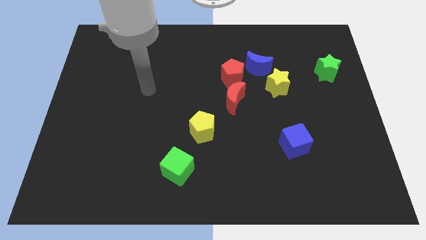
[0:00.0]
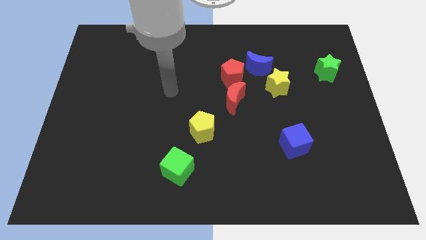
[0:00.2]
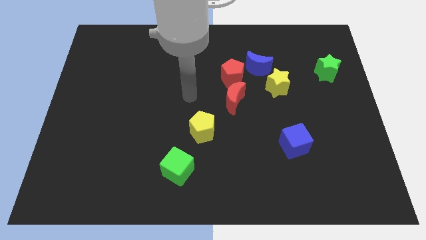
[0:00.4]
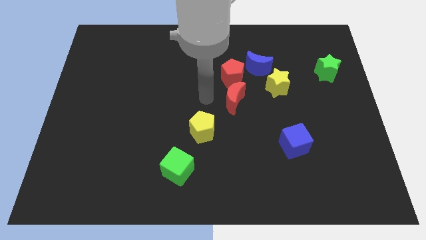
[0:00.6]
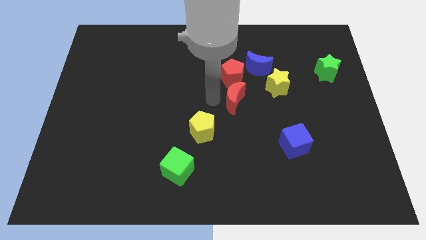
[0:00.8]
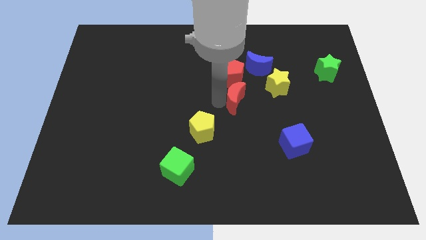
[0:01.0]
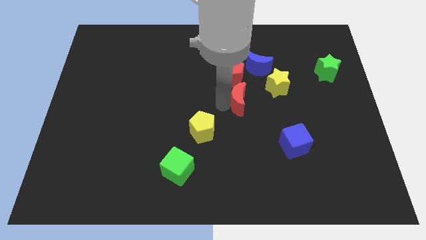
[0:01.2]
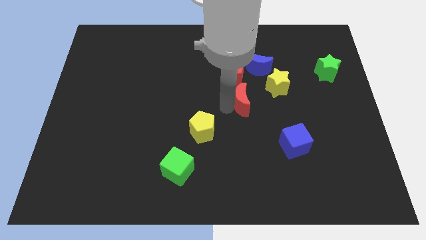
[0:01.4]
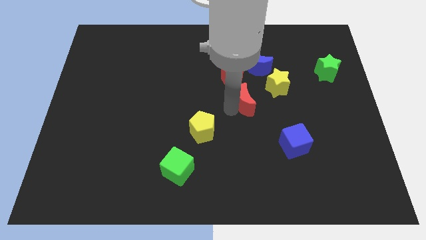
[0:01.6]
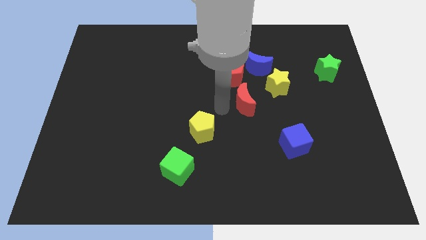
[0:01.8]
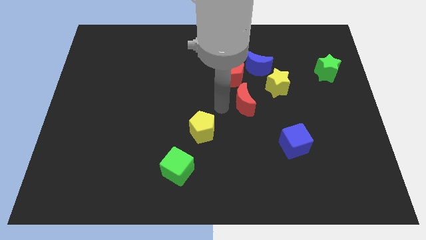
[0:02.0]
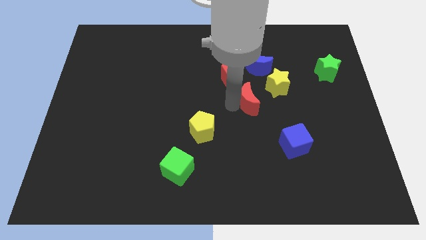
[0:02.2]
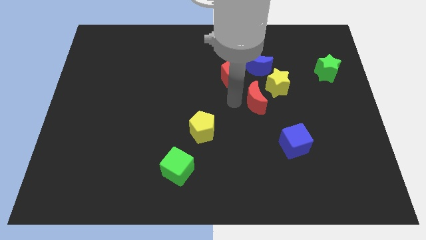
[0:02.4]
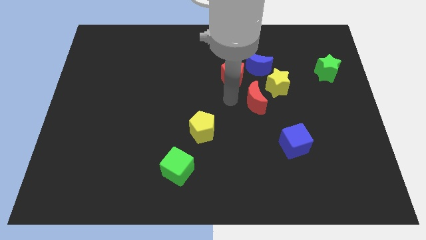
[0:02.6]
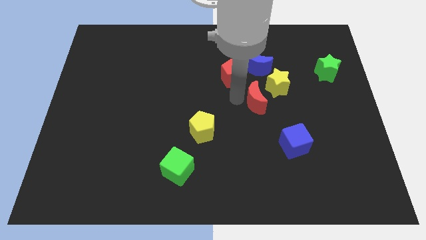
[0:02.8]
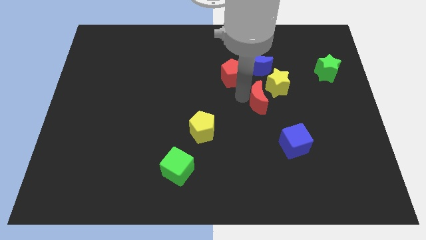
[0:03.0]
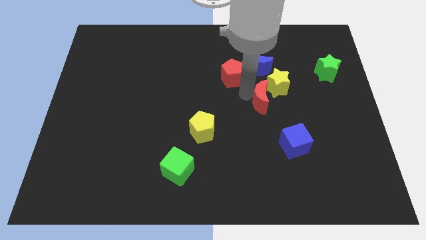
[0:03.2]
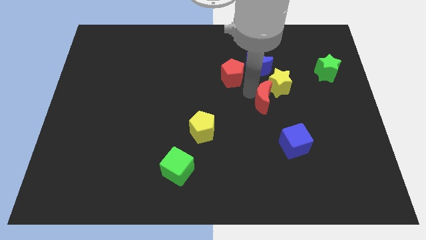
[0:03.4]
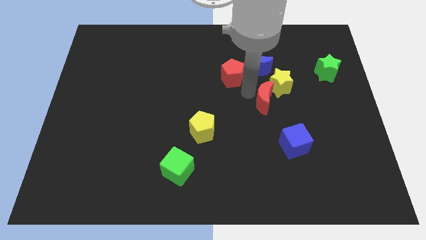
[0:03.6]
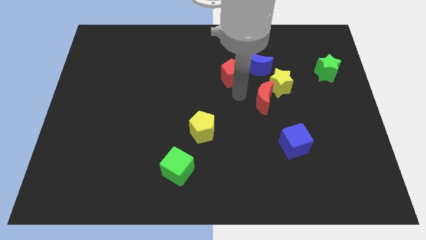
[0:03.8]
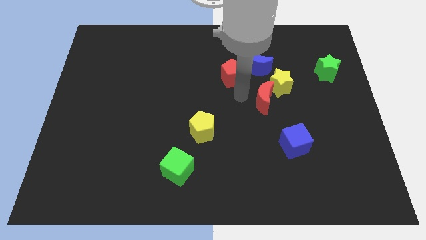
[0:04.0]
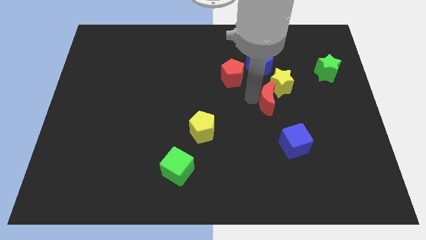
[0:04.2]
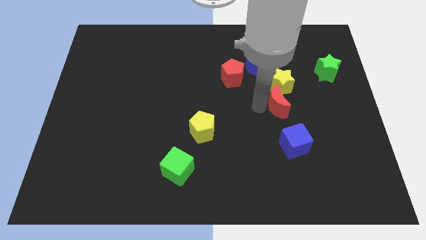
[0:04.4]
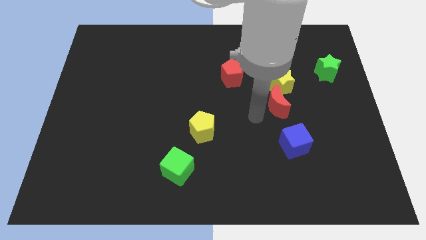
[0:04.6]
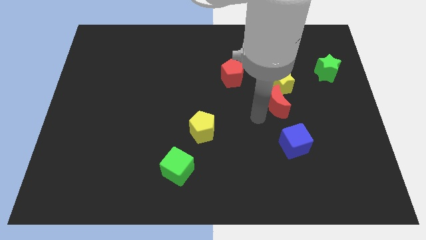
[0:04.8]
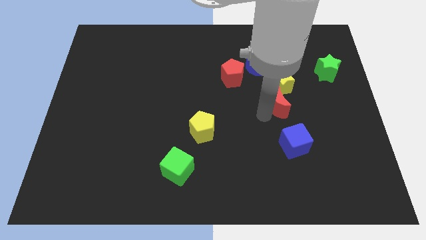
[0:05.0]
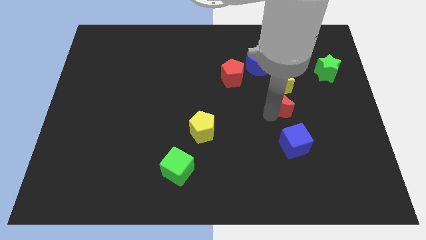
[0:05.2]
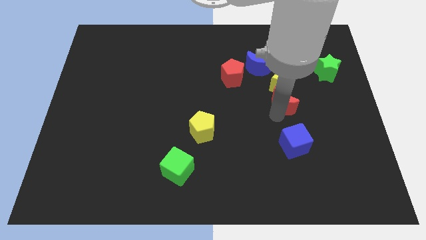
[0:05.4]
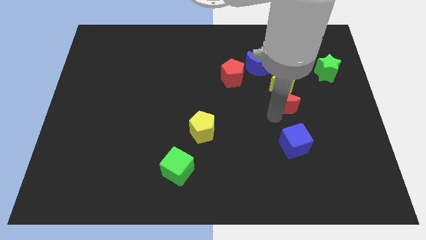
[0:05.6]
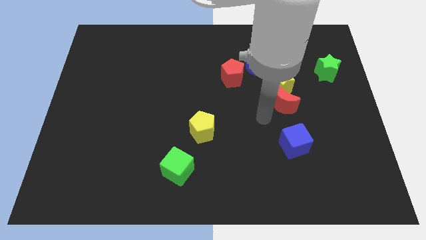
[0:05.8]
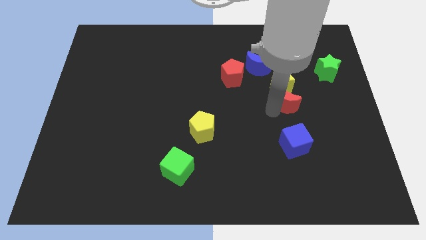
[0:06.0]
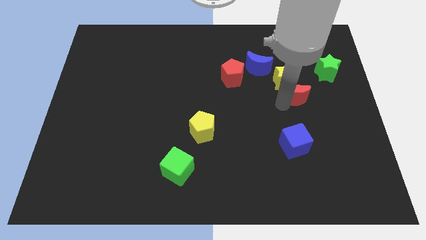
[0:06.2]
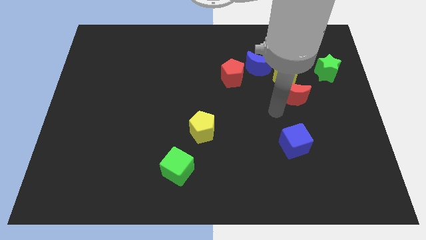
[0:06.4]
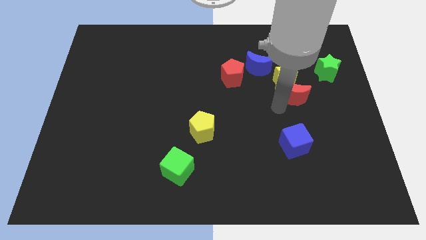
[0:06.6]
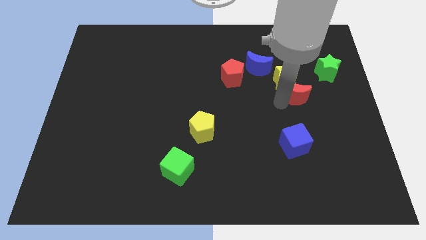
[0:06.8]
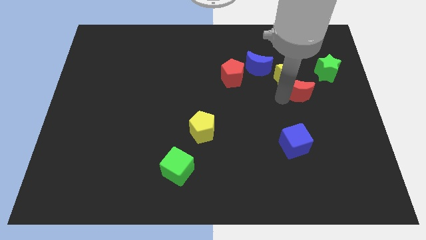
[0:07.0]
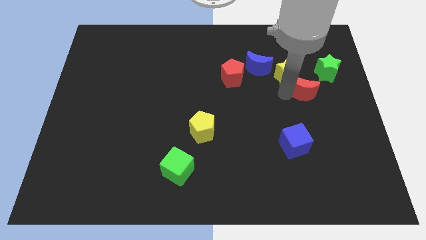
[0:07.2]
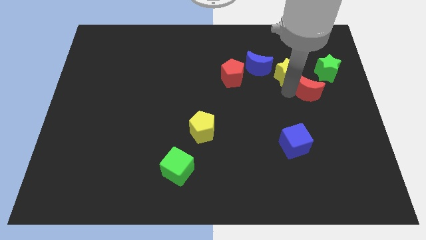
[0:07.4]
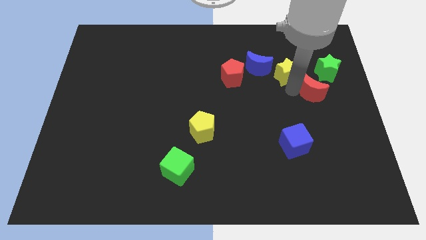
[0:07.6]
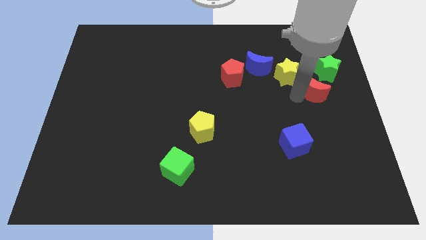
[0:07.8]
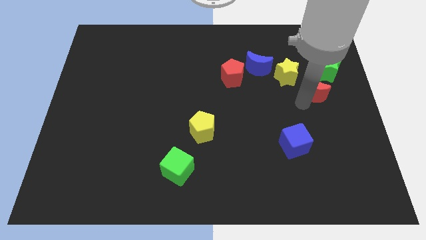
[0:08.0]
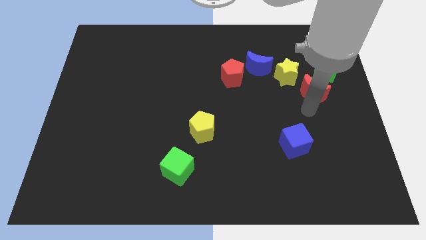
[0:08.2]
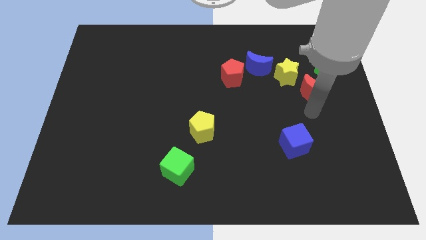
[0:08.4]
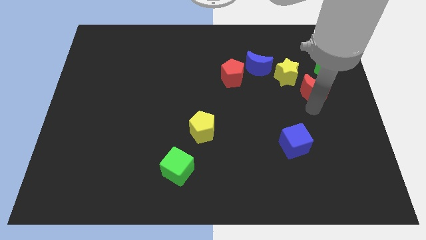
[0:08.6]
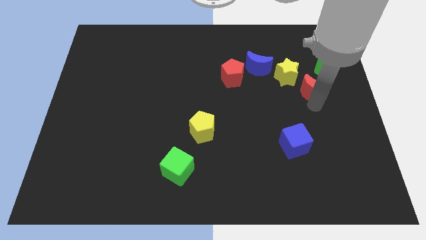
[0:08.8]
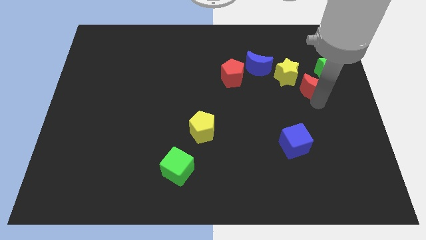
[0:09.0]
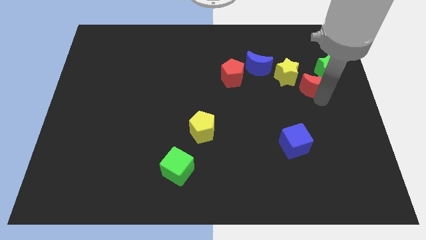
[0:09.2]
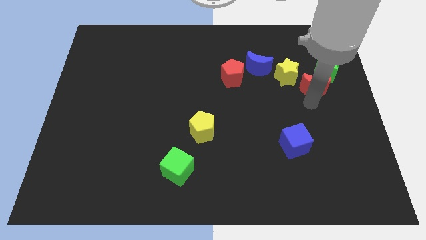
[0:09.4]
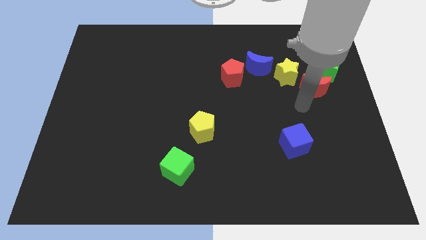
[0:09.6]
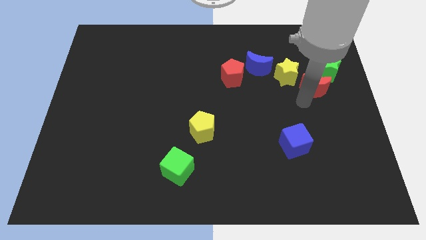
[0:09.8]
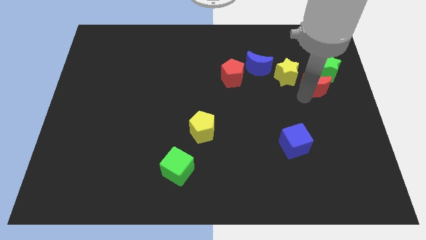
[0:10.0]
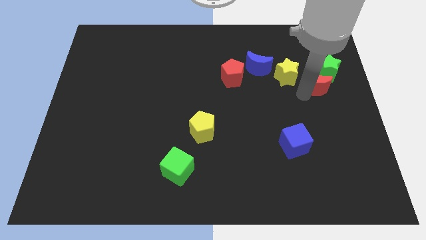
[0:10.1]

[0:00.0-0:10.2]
push the red moon close to the green star

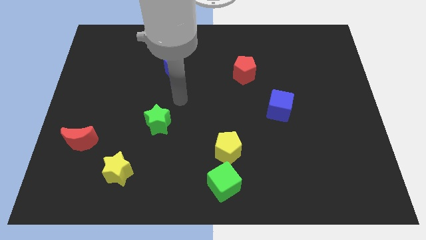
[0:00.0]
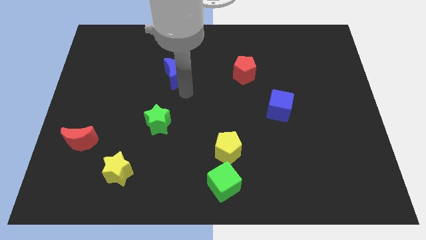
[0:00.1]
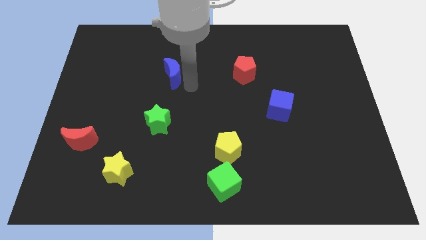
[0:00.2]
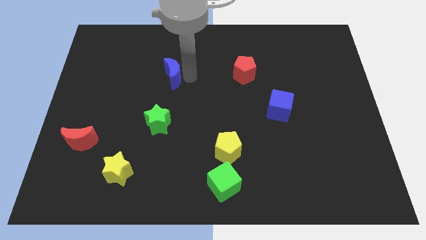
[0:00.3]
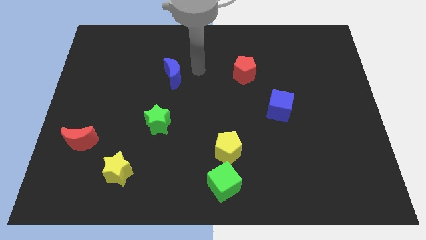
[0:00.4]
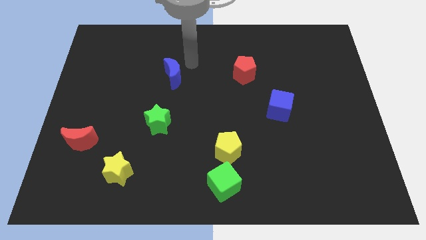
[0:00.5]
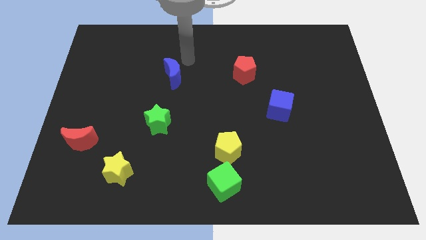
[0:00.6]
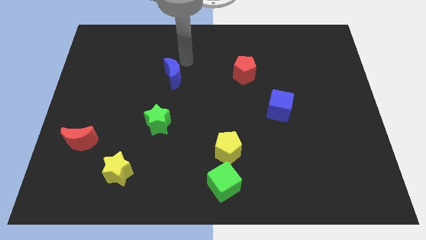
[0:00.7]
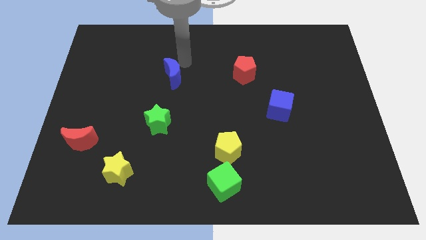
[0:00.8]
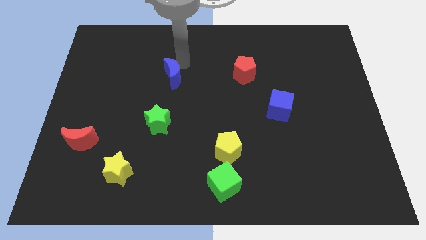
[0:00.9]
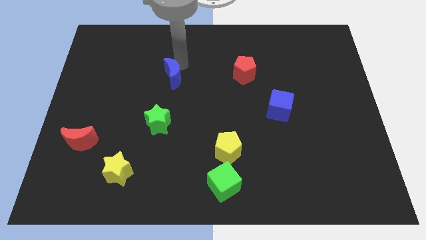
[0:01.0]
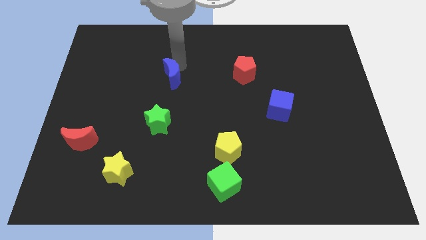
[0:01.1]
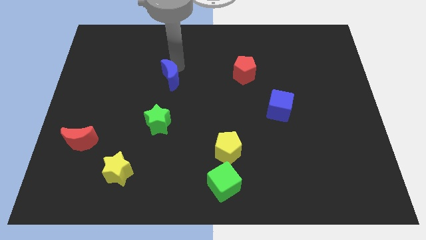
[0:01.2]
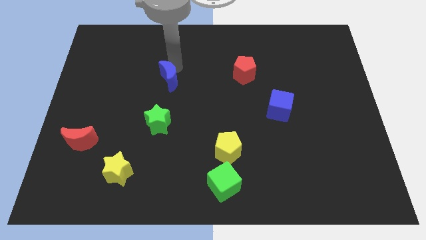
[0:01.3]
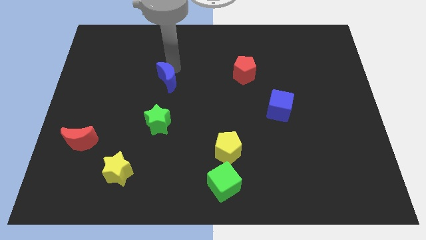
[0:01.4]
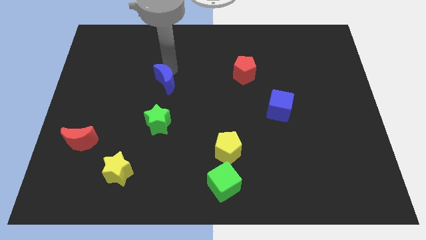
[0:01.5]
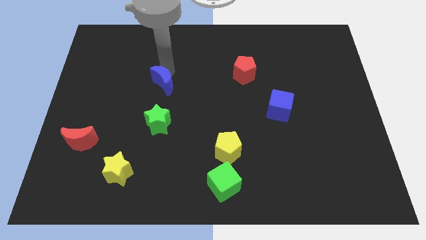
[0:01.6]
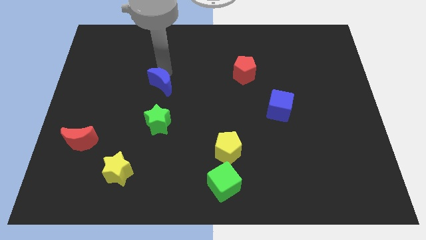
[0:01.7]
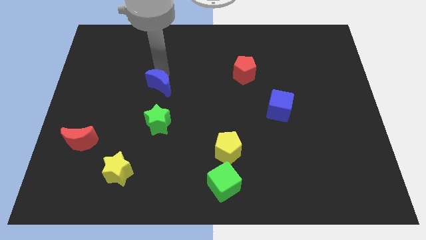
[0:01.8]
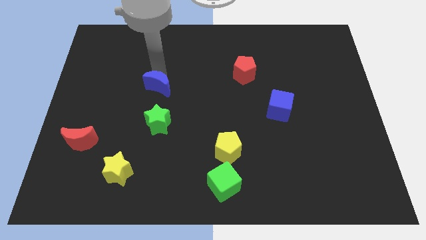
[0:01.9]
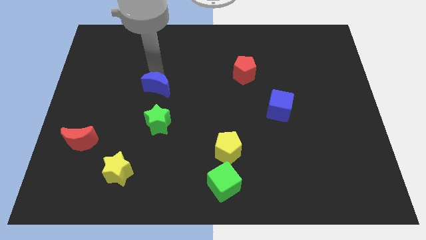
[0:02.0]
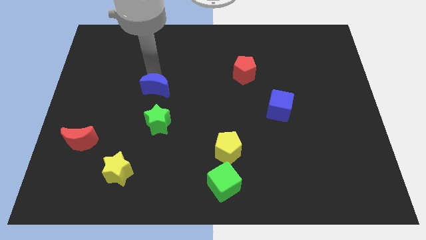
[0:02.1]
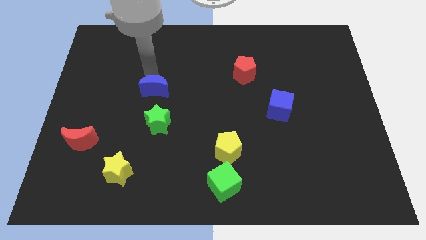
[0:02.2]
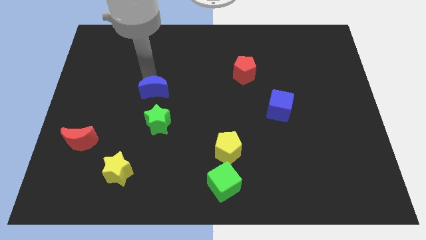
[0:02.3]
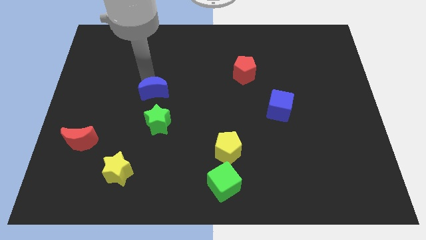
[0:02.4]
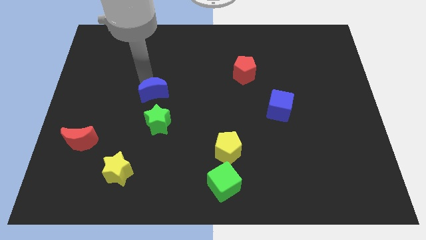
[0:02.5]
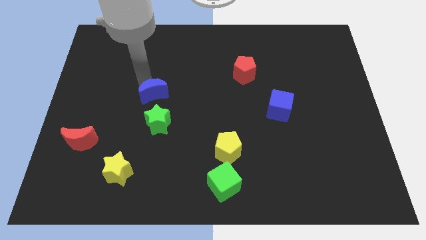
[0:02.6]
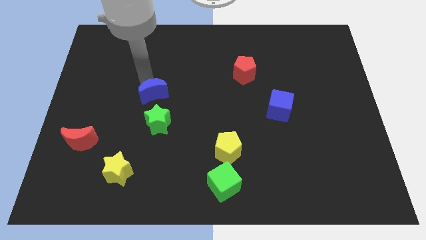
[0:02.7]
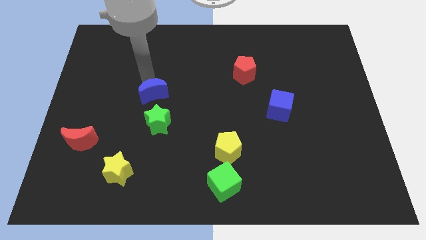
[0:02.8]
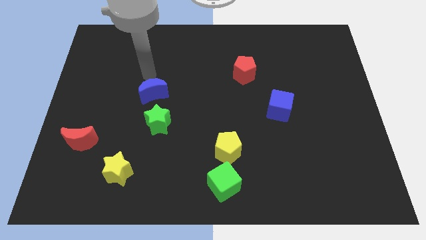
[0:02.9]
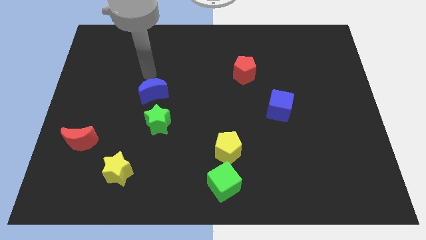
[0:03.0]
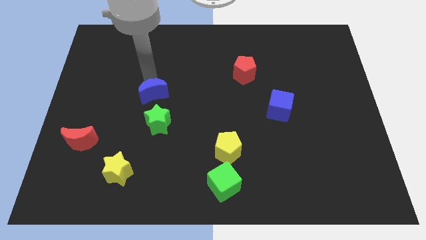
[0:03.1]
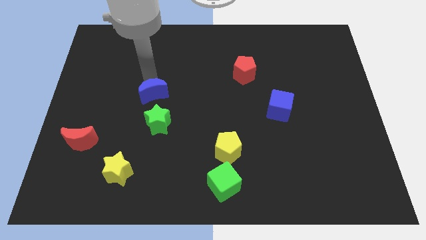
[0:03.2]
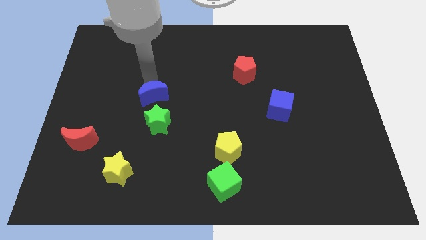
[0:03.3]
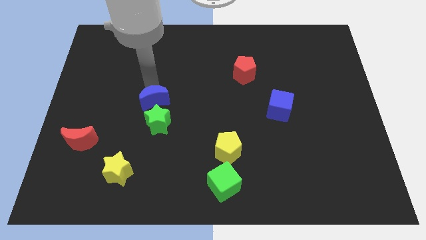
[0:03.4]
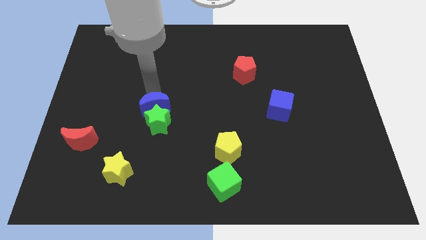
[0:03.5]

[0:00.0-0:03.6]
push the blue moon close to the green star
